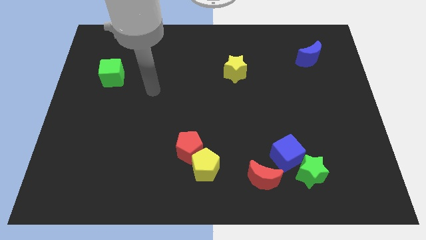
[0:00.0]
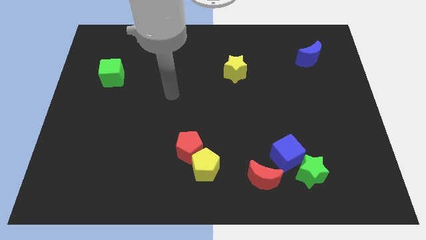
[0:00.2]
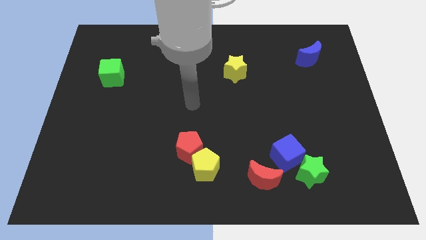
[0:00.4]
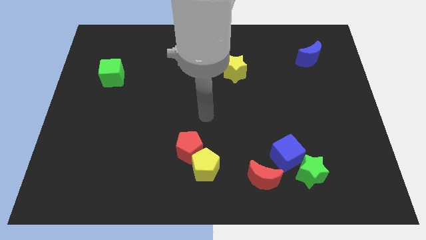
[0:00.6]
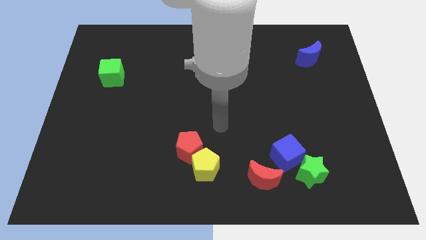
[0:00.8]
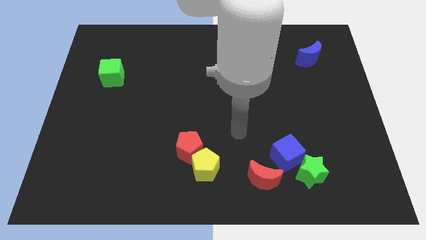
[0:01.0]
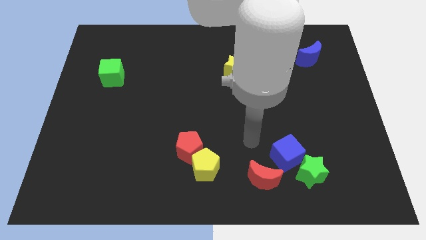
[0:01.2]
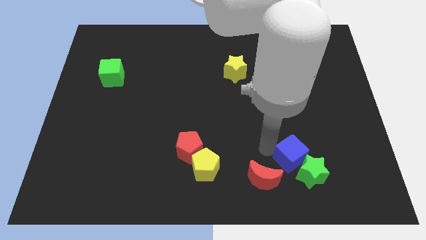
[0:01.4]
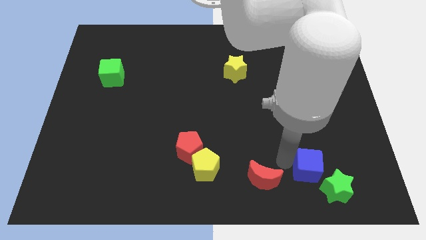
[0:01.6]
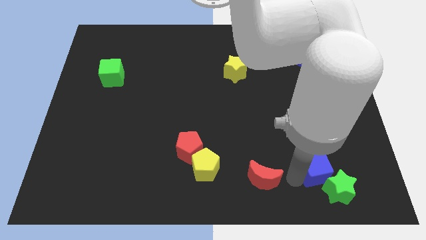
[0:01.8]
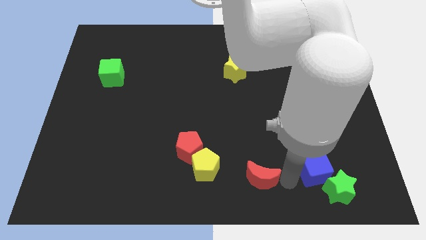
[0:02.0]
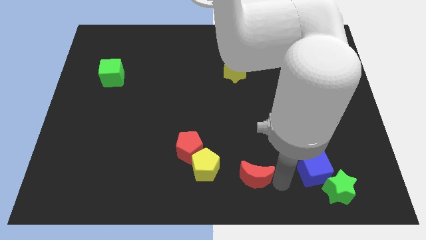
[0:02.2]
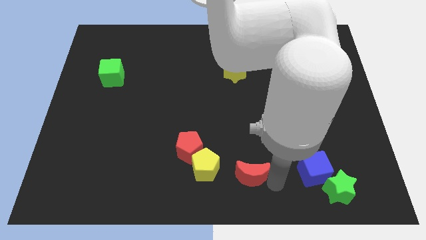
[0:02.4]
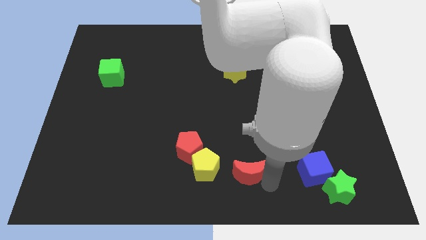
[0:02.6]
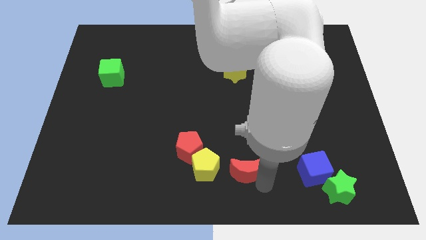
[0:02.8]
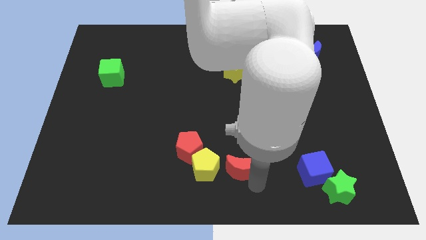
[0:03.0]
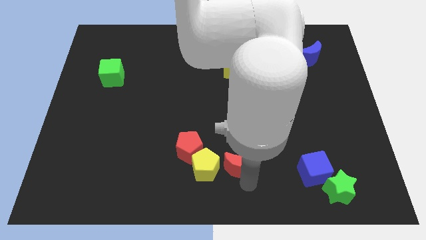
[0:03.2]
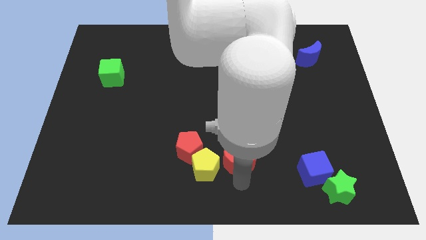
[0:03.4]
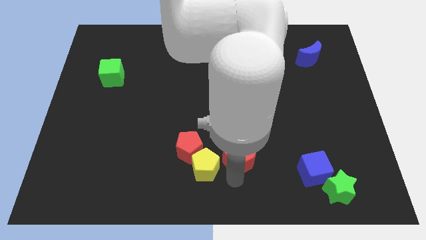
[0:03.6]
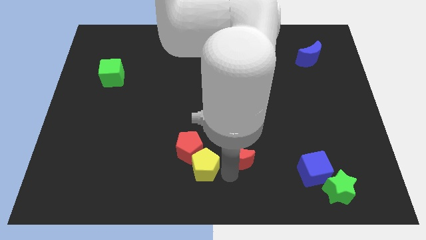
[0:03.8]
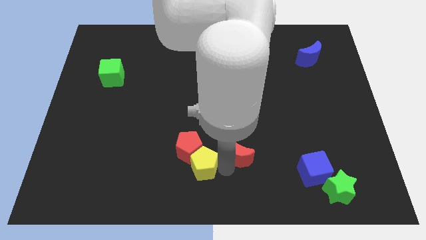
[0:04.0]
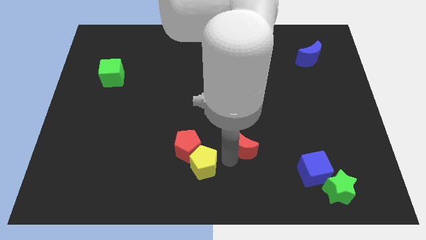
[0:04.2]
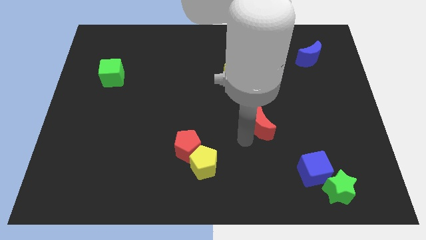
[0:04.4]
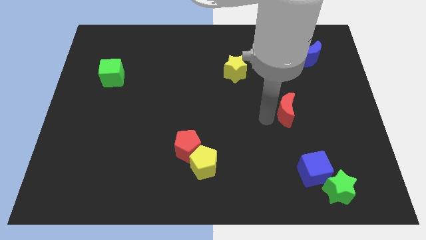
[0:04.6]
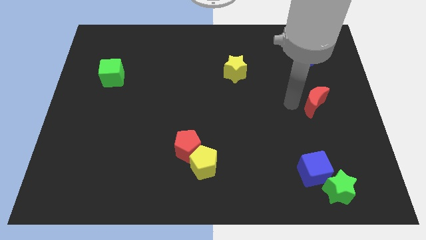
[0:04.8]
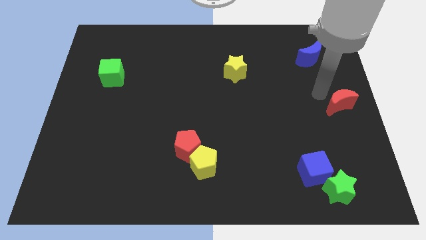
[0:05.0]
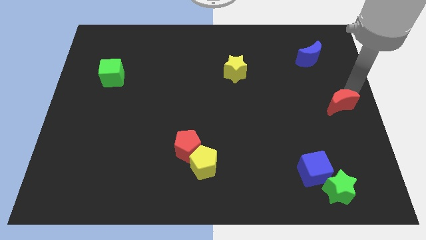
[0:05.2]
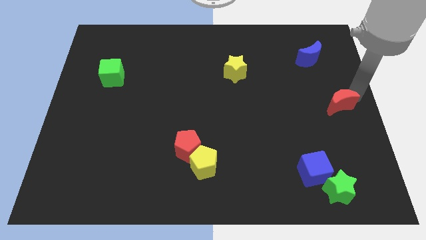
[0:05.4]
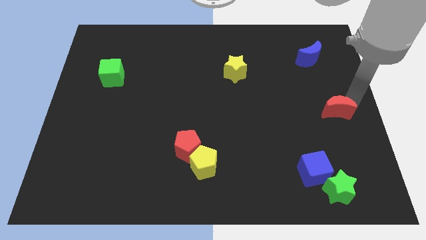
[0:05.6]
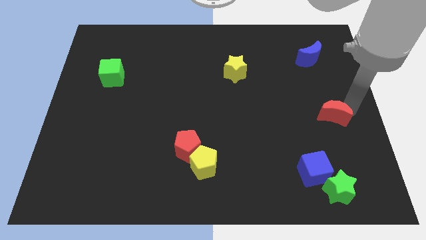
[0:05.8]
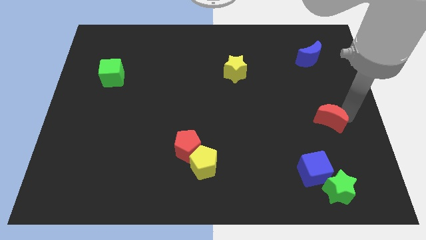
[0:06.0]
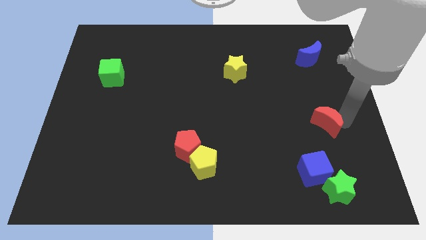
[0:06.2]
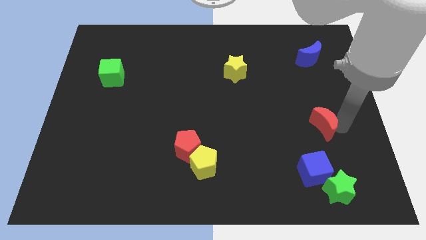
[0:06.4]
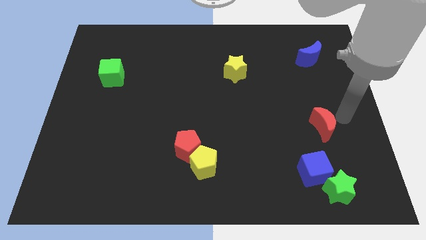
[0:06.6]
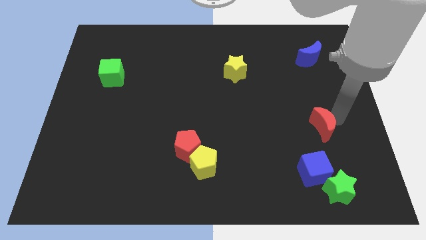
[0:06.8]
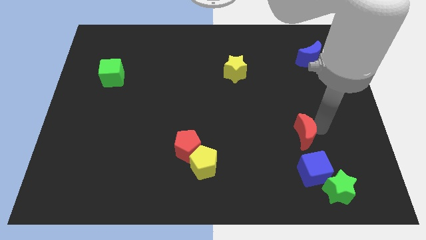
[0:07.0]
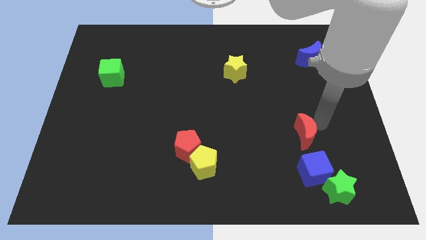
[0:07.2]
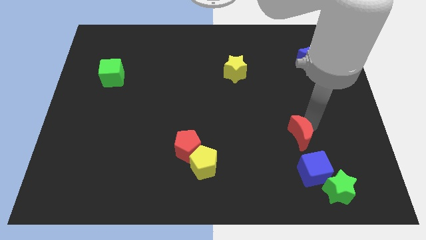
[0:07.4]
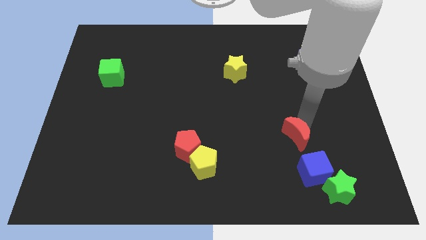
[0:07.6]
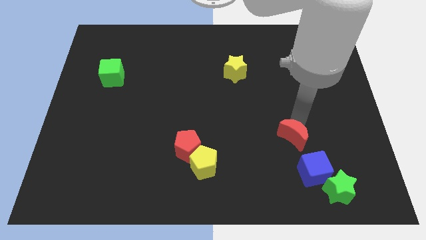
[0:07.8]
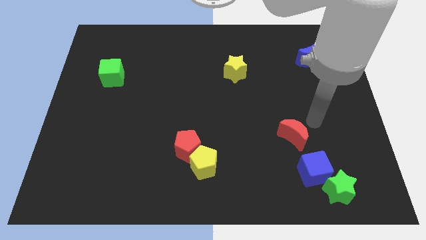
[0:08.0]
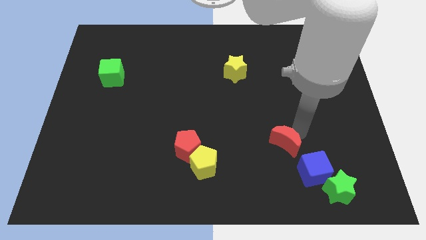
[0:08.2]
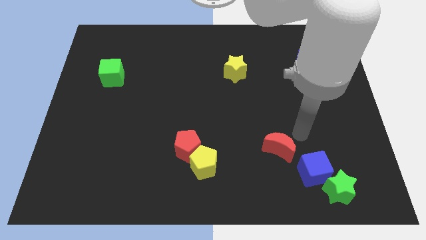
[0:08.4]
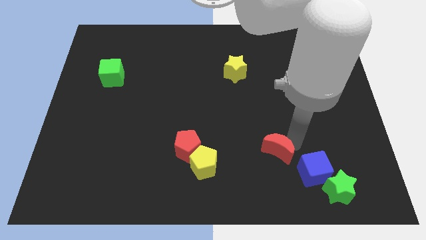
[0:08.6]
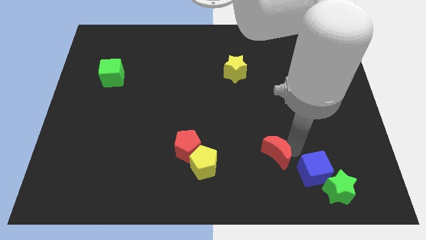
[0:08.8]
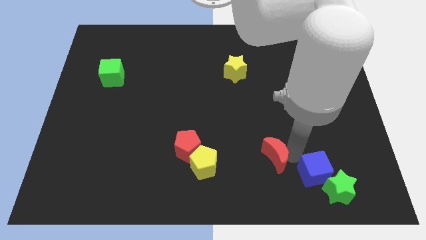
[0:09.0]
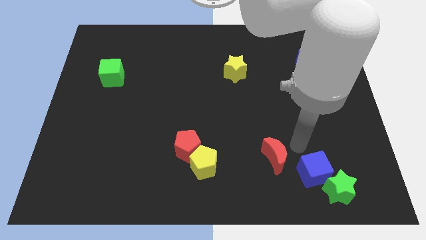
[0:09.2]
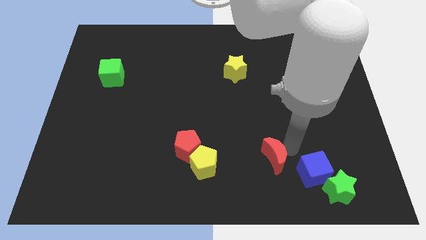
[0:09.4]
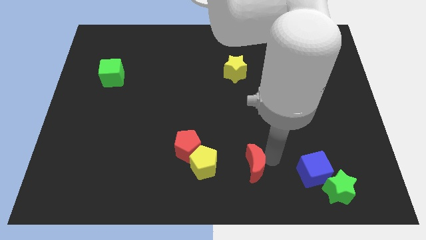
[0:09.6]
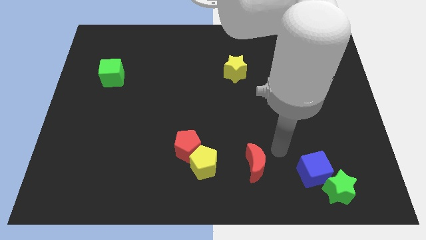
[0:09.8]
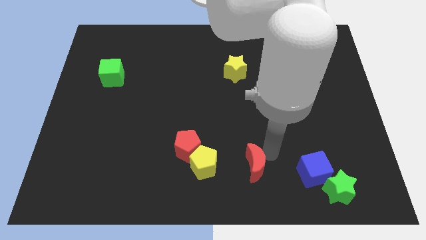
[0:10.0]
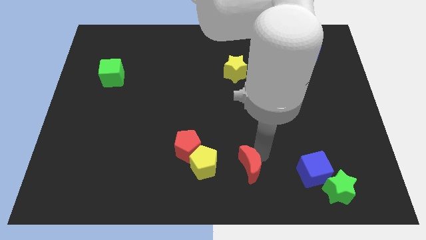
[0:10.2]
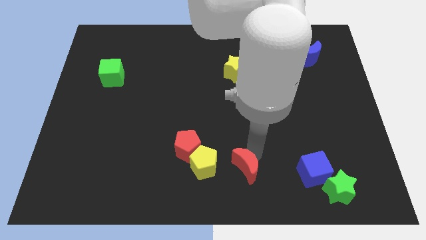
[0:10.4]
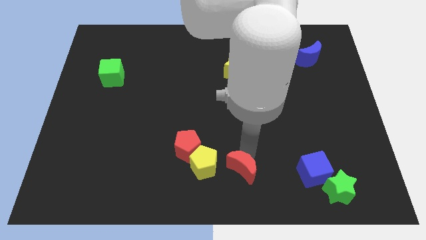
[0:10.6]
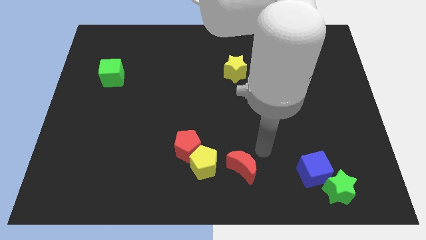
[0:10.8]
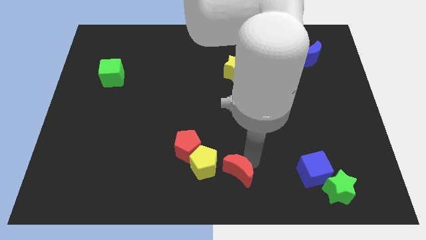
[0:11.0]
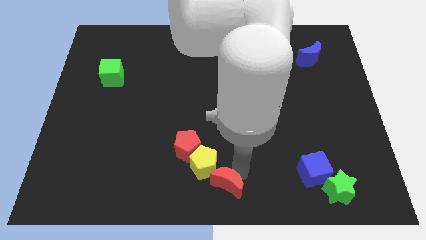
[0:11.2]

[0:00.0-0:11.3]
slide the red moon to the left a bit

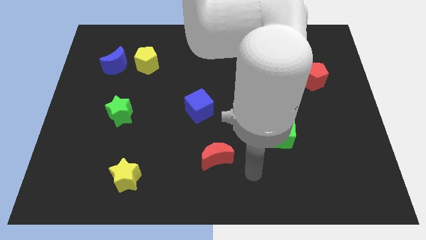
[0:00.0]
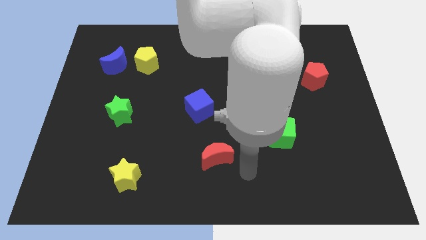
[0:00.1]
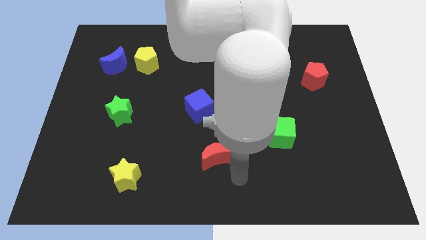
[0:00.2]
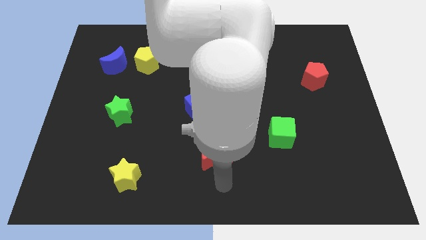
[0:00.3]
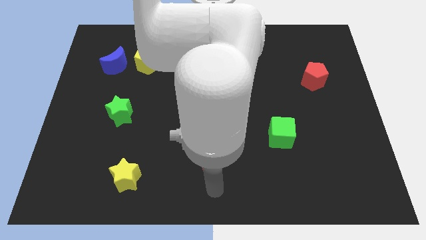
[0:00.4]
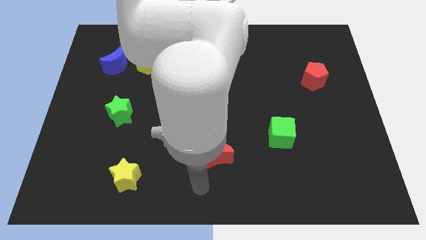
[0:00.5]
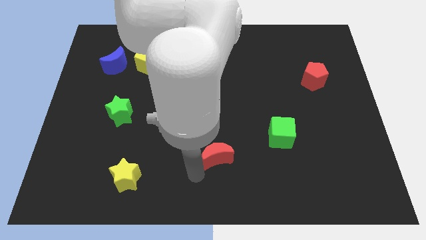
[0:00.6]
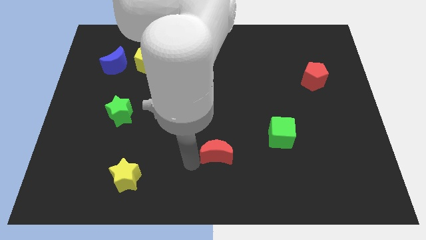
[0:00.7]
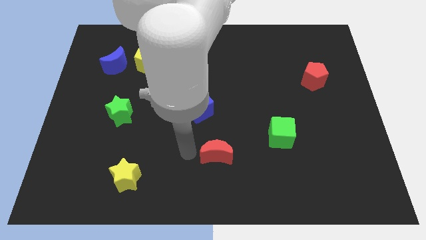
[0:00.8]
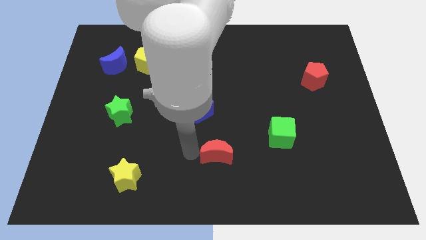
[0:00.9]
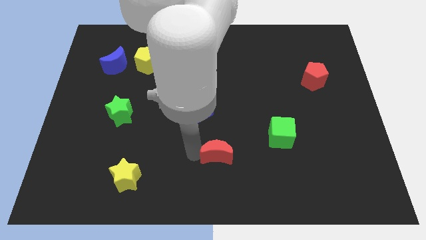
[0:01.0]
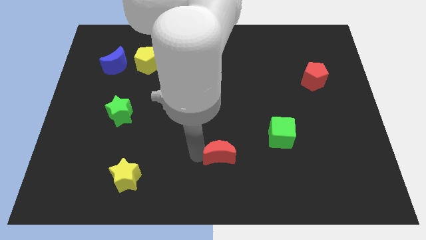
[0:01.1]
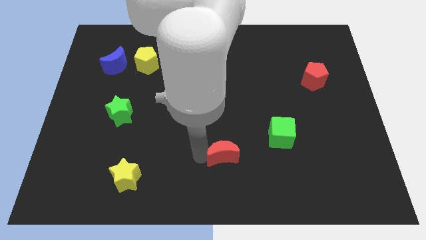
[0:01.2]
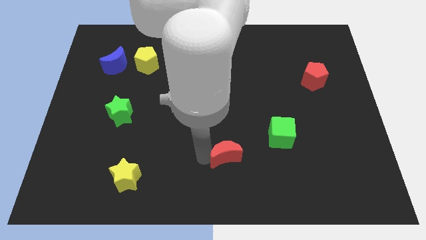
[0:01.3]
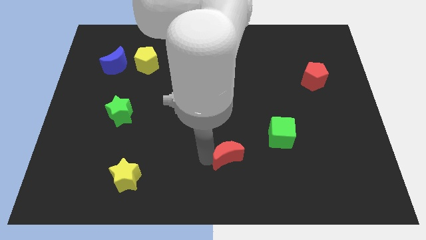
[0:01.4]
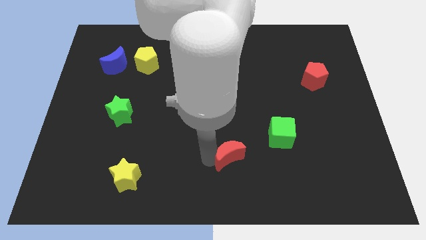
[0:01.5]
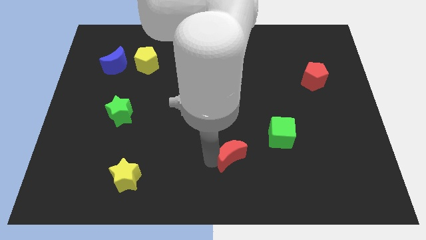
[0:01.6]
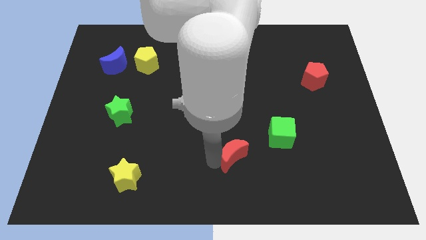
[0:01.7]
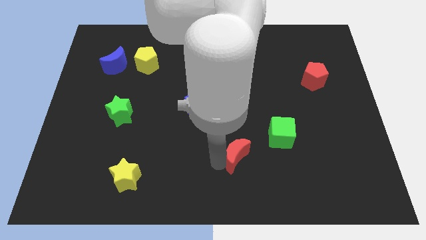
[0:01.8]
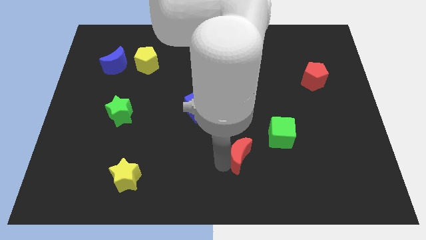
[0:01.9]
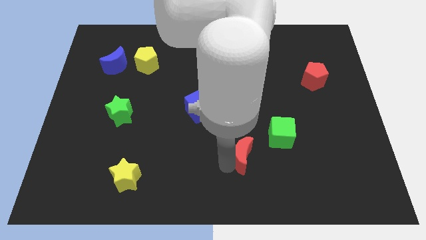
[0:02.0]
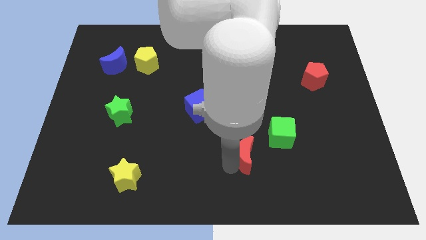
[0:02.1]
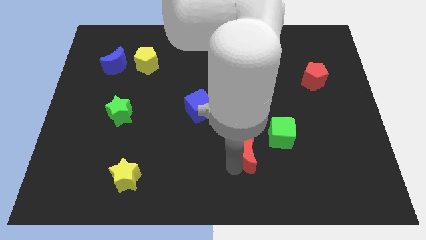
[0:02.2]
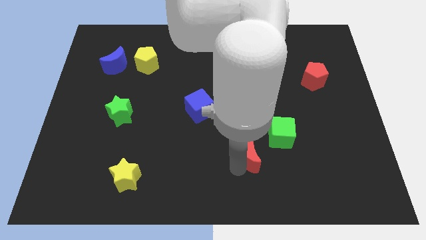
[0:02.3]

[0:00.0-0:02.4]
push the red moon a little bit to the right
